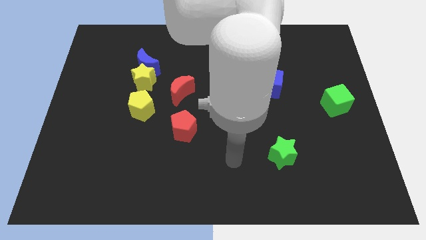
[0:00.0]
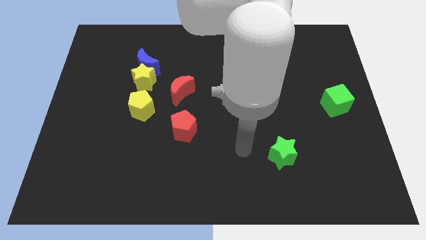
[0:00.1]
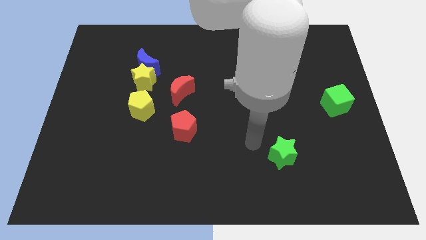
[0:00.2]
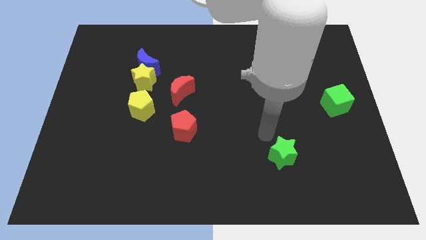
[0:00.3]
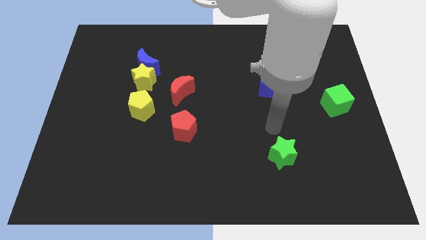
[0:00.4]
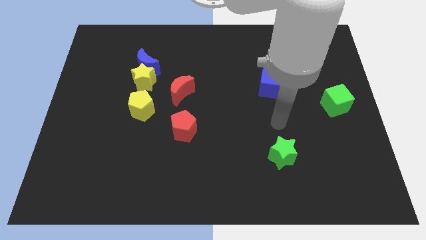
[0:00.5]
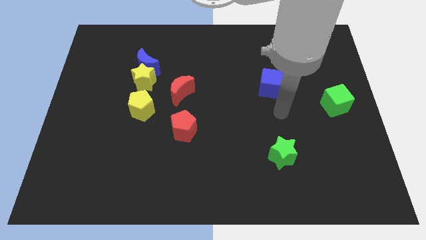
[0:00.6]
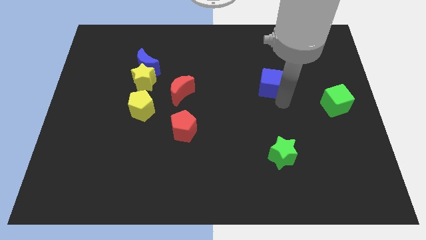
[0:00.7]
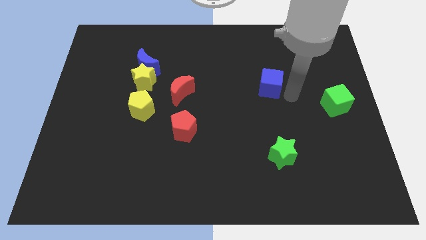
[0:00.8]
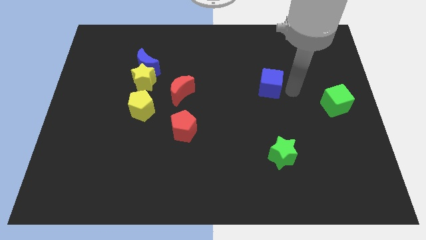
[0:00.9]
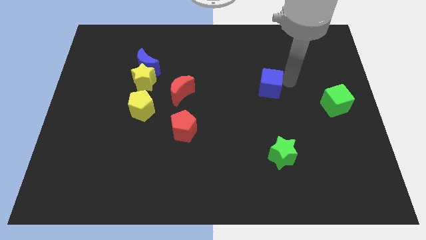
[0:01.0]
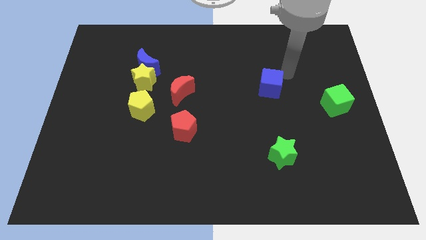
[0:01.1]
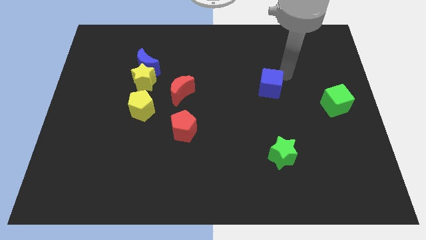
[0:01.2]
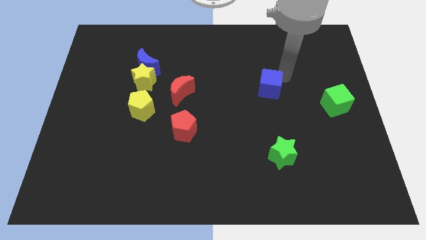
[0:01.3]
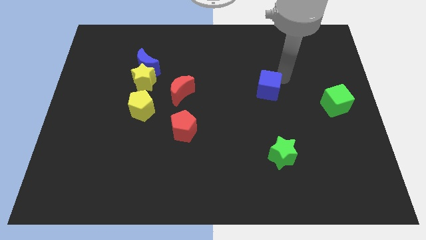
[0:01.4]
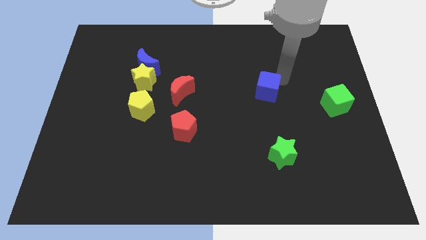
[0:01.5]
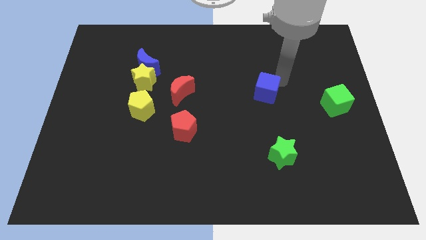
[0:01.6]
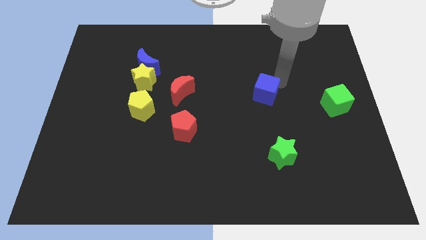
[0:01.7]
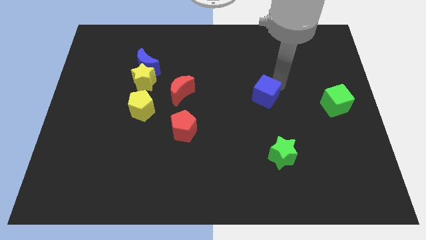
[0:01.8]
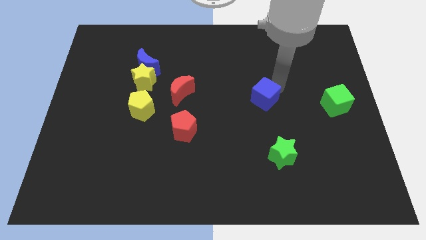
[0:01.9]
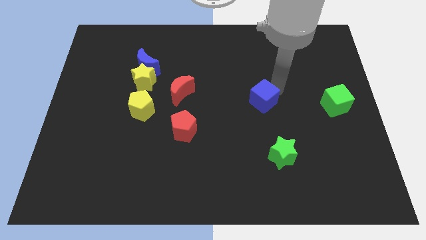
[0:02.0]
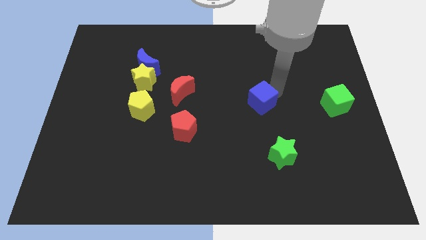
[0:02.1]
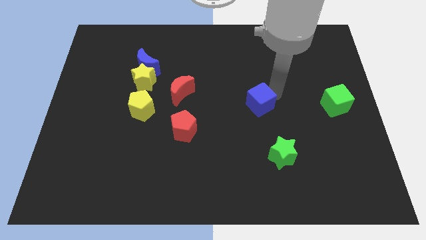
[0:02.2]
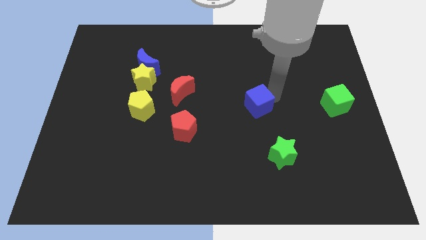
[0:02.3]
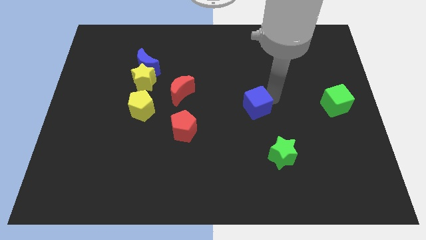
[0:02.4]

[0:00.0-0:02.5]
slightly move the blue cube downwards and to the left

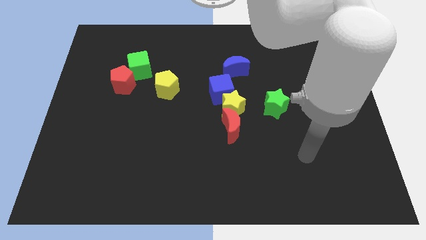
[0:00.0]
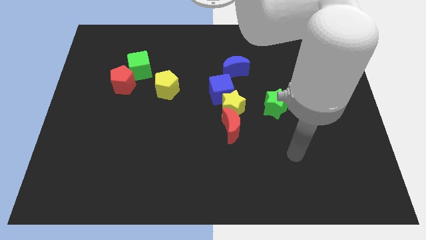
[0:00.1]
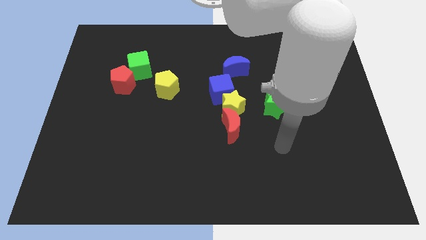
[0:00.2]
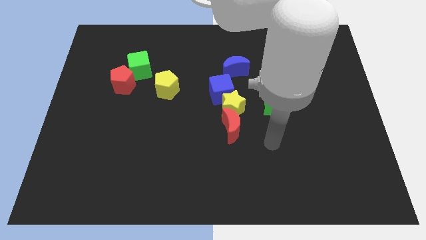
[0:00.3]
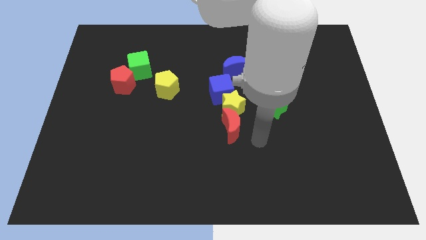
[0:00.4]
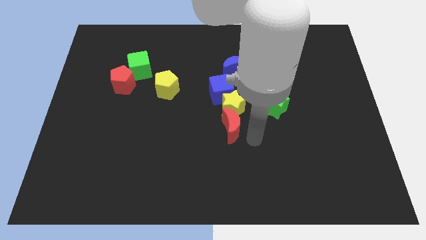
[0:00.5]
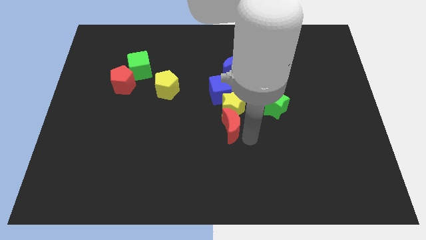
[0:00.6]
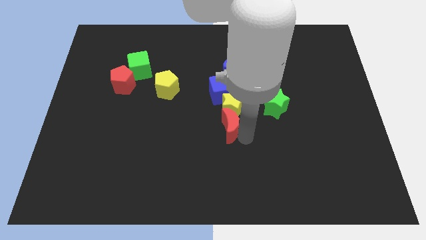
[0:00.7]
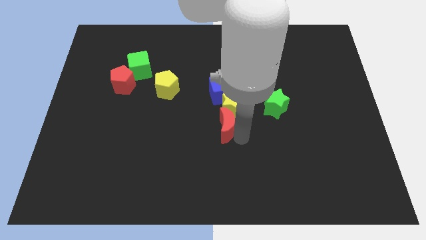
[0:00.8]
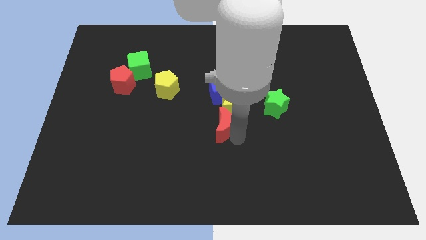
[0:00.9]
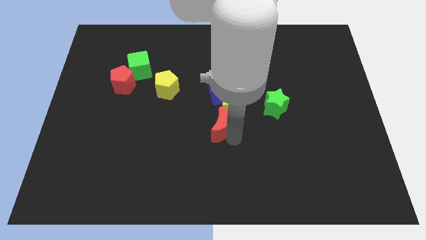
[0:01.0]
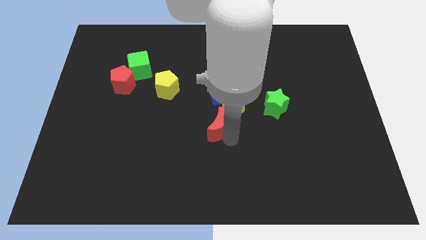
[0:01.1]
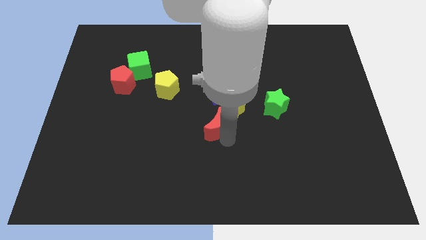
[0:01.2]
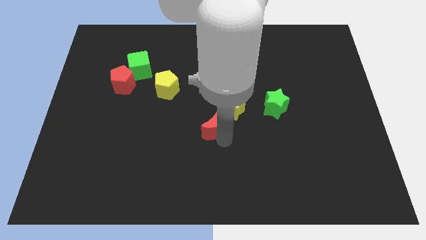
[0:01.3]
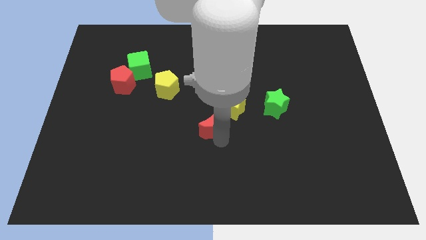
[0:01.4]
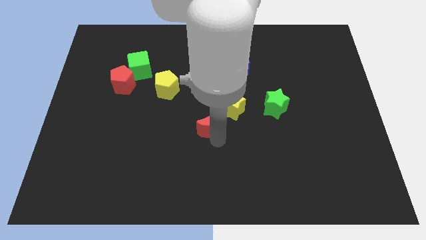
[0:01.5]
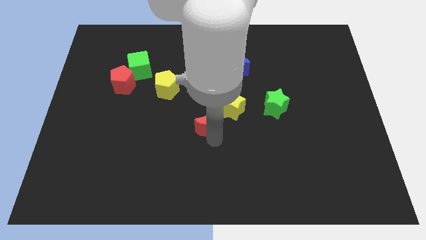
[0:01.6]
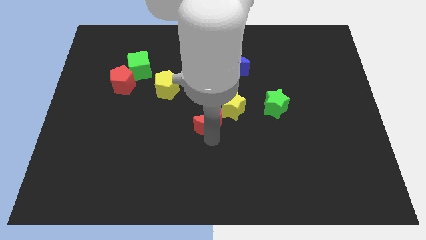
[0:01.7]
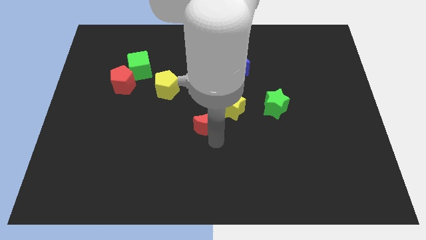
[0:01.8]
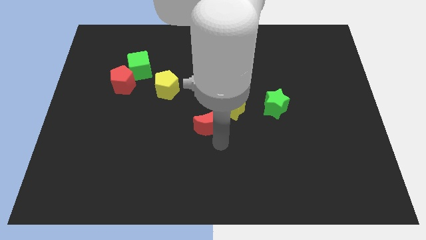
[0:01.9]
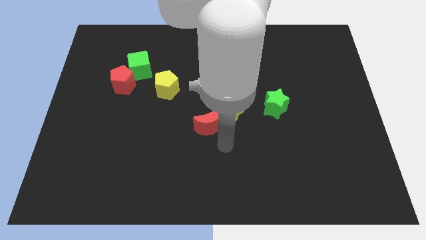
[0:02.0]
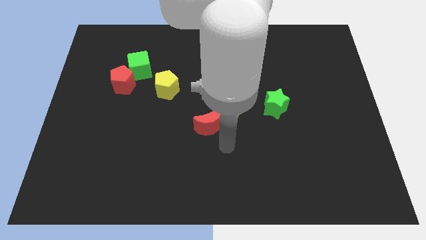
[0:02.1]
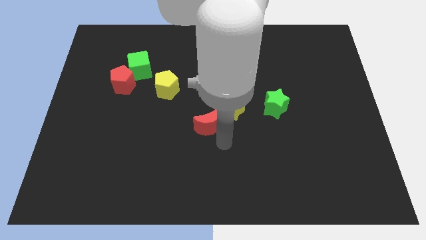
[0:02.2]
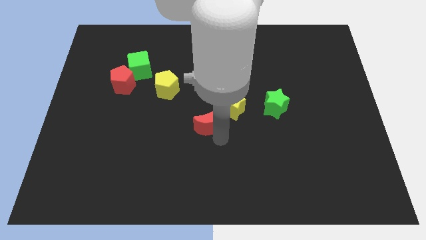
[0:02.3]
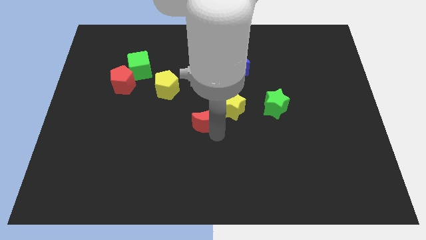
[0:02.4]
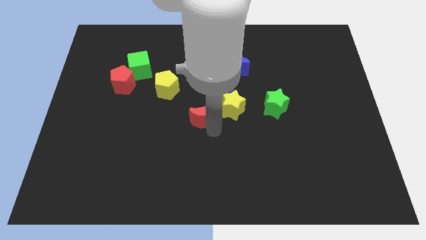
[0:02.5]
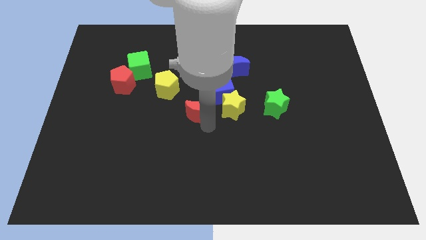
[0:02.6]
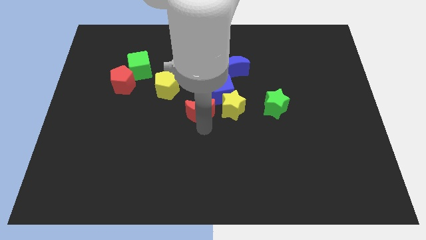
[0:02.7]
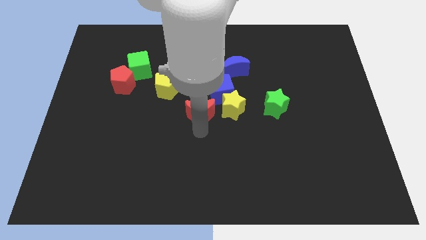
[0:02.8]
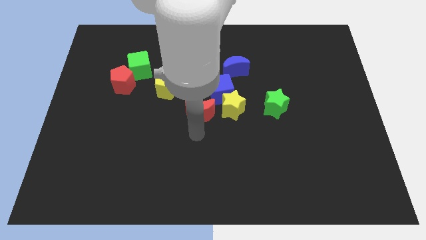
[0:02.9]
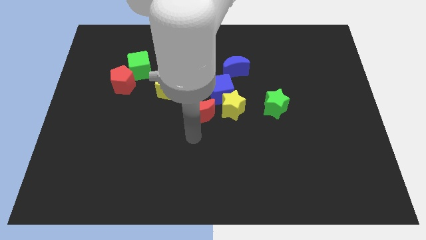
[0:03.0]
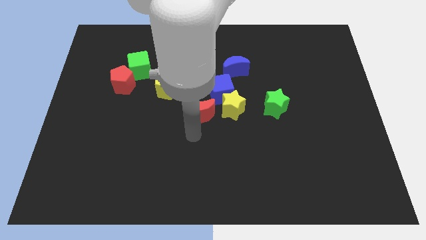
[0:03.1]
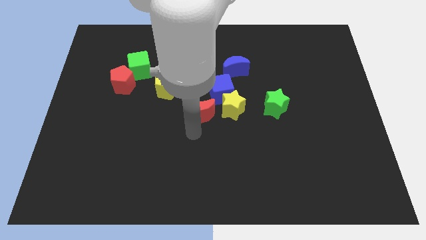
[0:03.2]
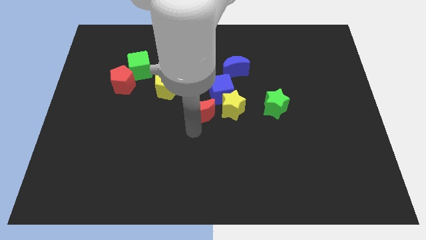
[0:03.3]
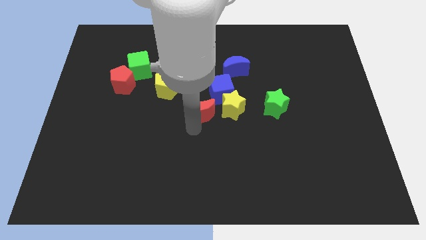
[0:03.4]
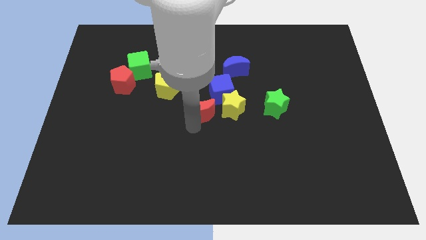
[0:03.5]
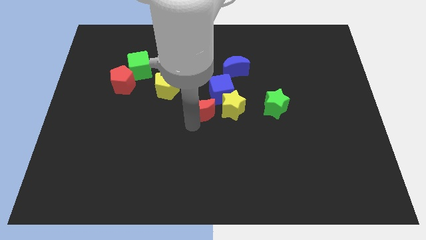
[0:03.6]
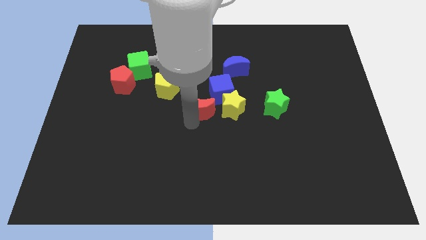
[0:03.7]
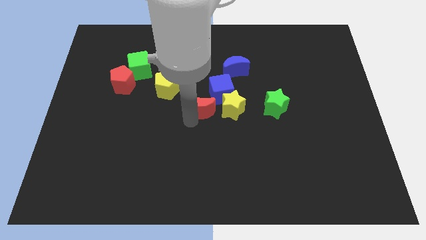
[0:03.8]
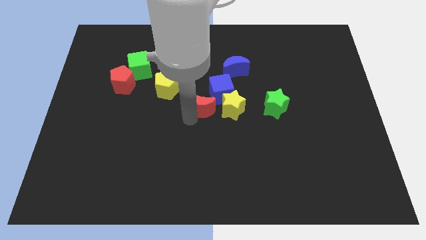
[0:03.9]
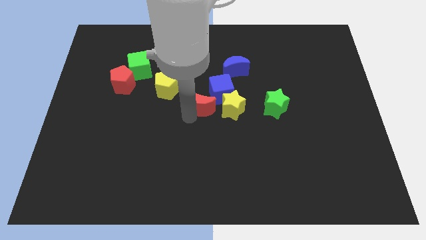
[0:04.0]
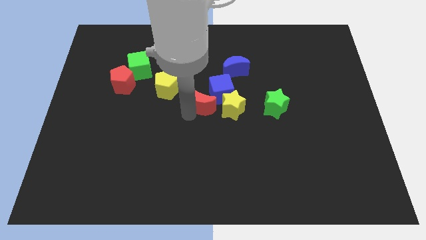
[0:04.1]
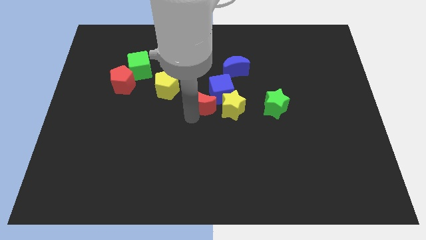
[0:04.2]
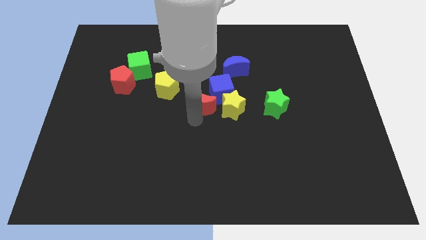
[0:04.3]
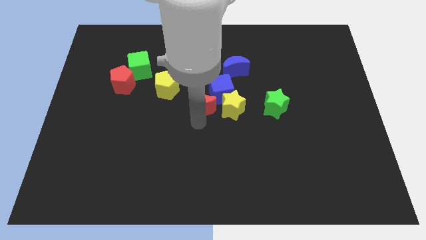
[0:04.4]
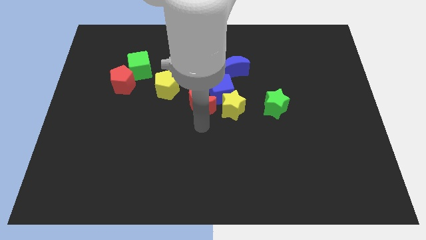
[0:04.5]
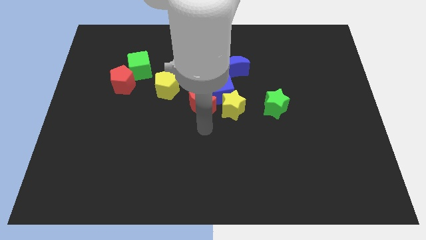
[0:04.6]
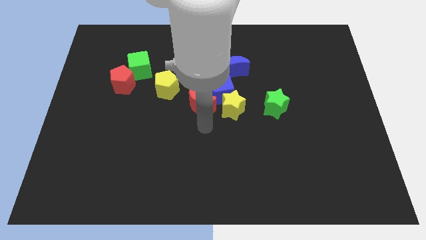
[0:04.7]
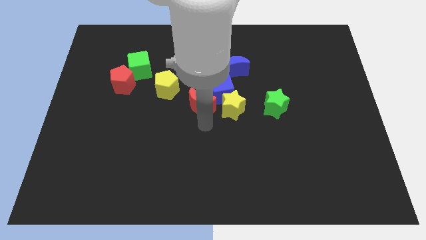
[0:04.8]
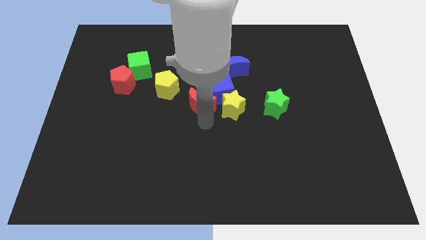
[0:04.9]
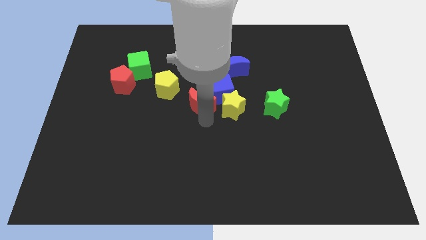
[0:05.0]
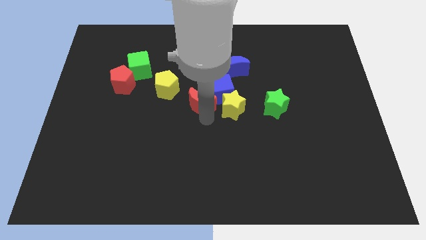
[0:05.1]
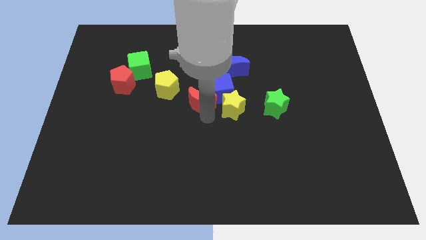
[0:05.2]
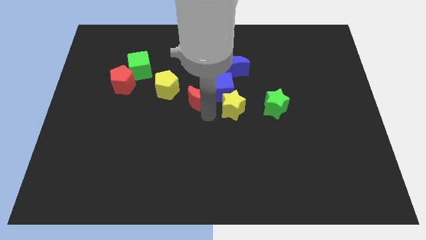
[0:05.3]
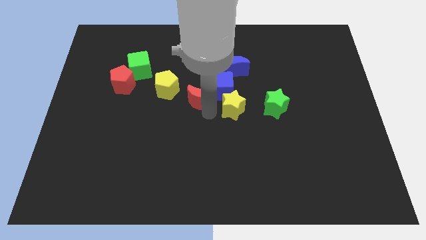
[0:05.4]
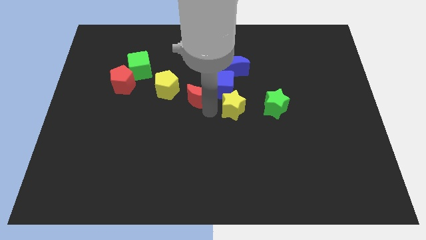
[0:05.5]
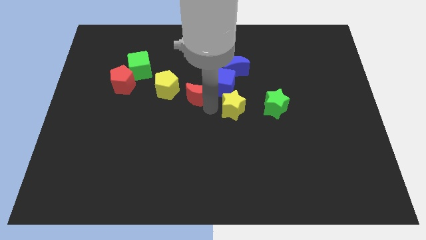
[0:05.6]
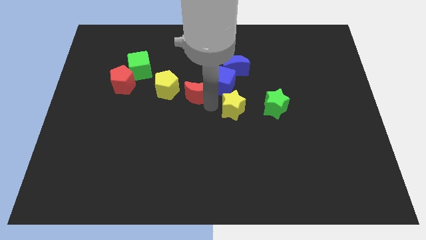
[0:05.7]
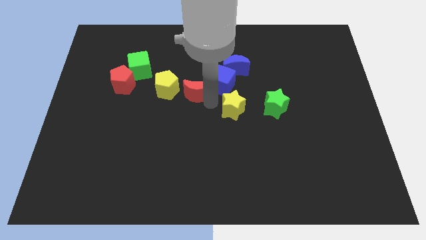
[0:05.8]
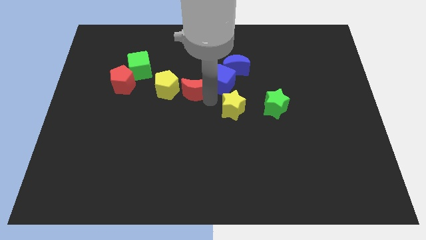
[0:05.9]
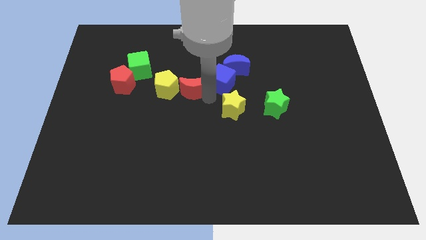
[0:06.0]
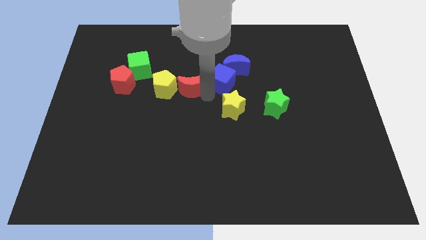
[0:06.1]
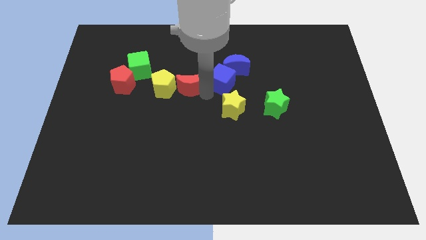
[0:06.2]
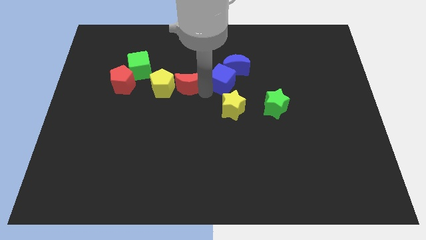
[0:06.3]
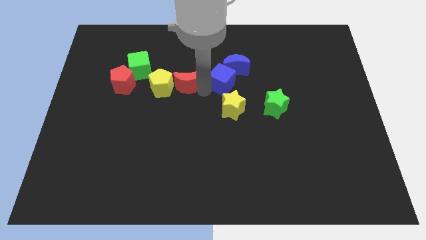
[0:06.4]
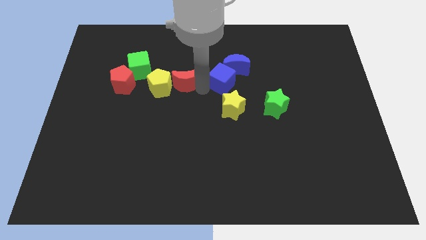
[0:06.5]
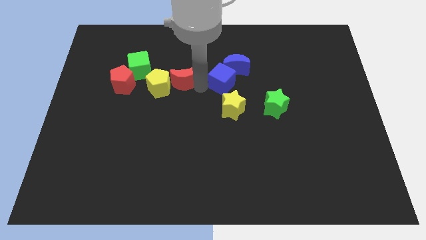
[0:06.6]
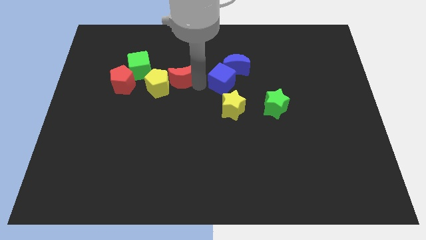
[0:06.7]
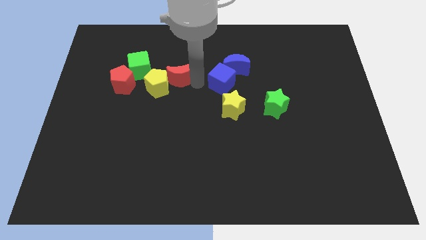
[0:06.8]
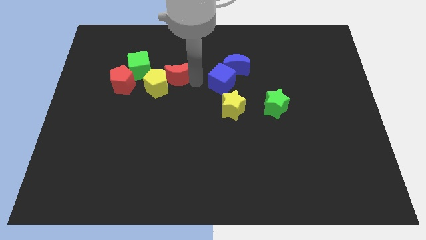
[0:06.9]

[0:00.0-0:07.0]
push the red moon upwards and then to the left
